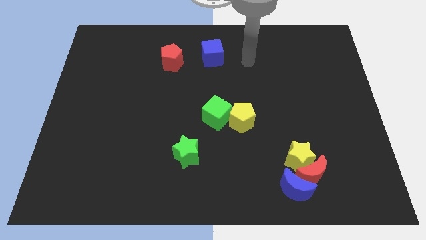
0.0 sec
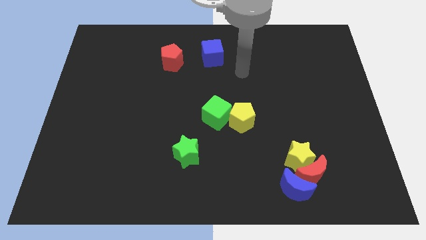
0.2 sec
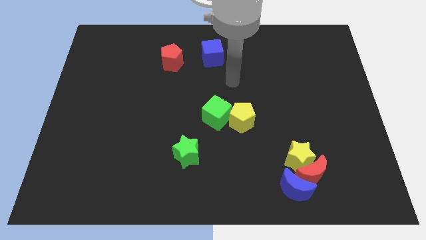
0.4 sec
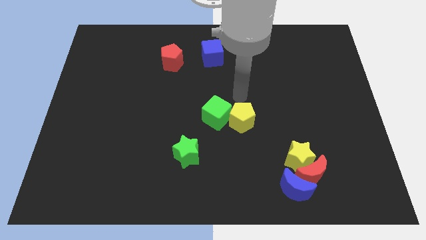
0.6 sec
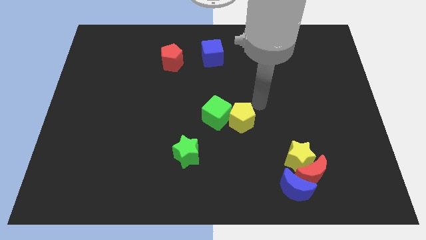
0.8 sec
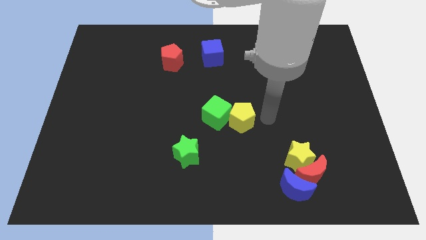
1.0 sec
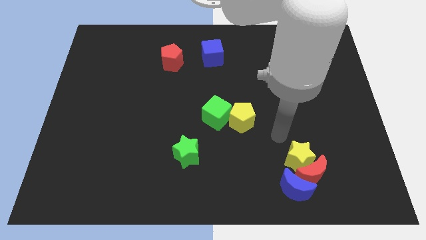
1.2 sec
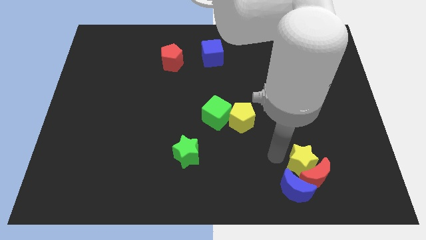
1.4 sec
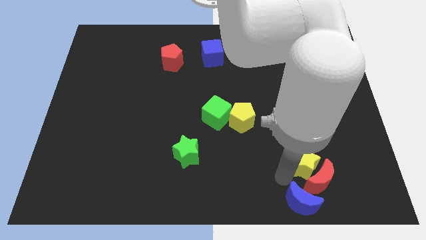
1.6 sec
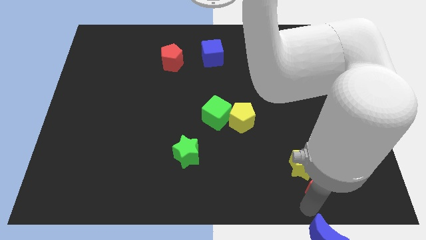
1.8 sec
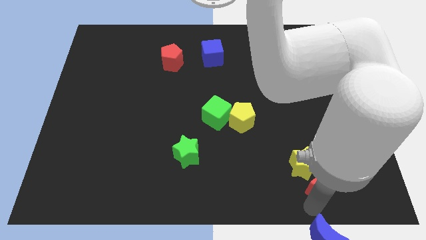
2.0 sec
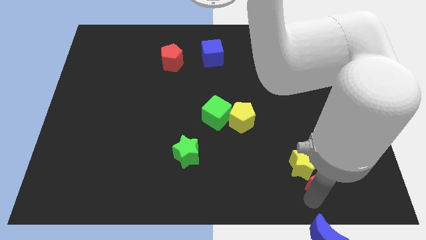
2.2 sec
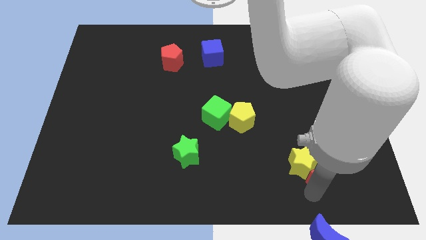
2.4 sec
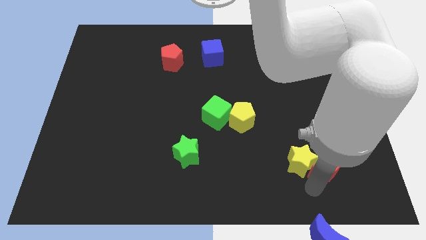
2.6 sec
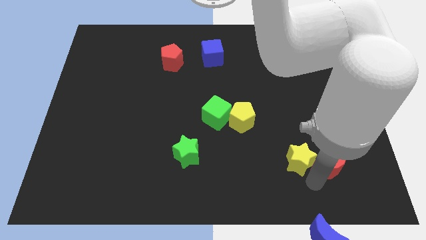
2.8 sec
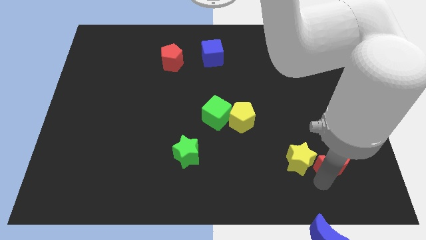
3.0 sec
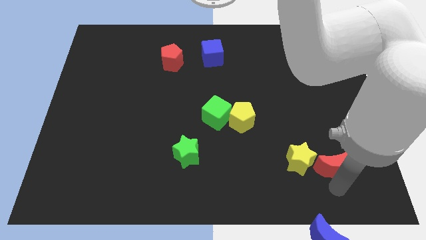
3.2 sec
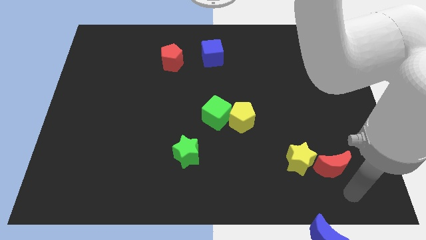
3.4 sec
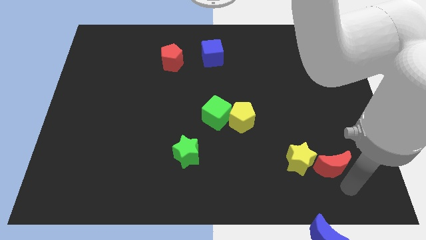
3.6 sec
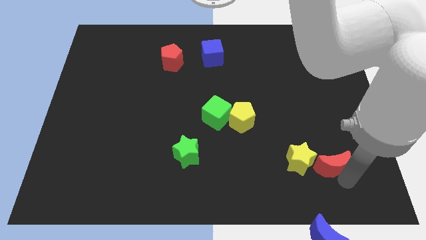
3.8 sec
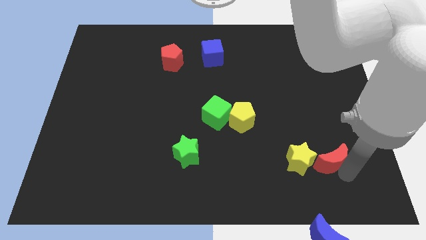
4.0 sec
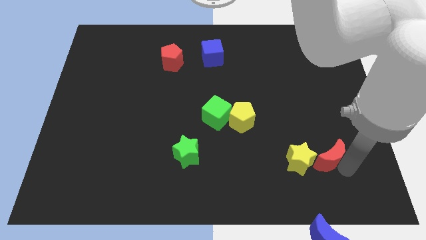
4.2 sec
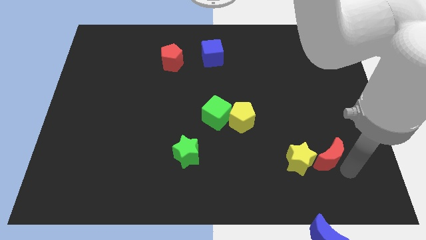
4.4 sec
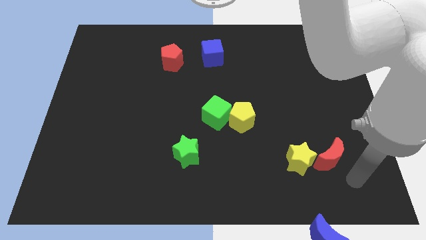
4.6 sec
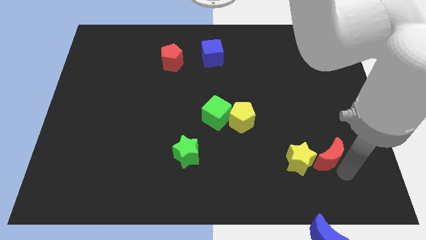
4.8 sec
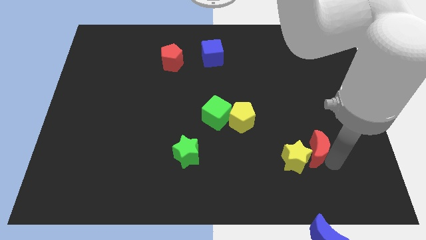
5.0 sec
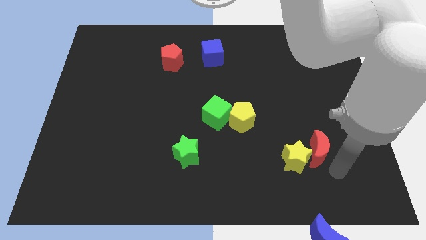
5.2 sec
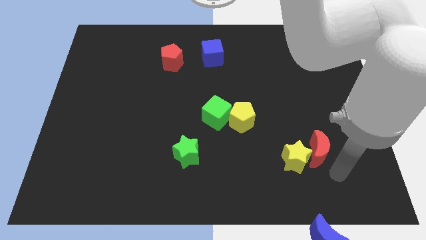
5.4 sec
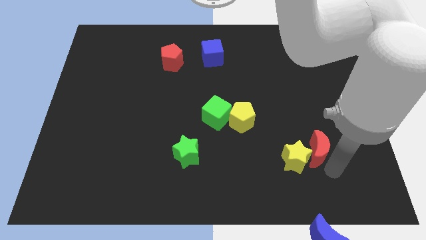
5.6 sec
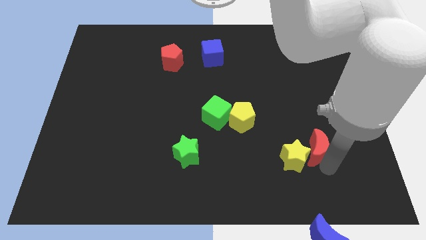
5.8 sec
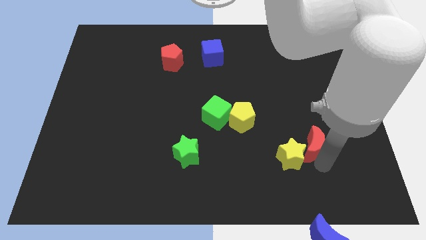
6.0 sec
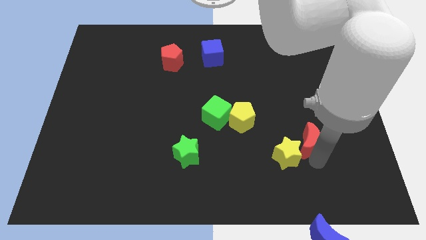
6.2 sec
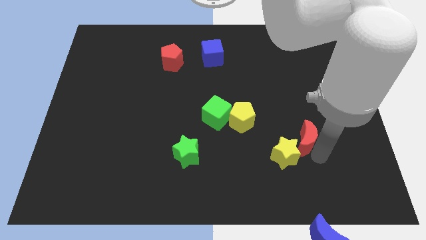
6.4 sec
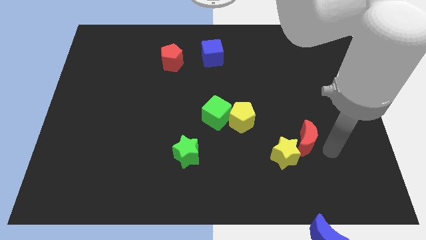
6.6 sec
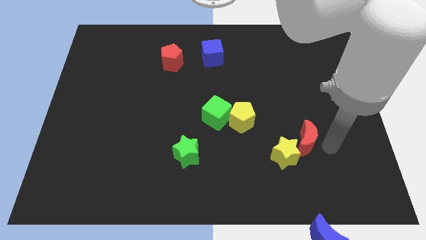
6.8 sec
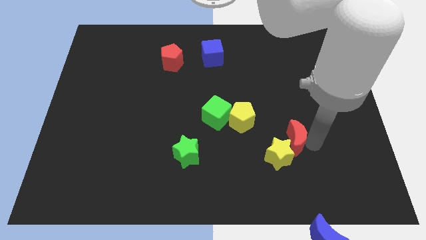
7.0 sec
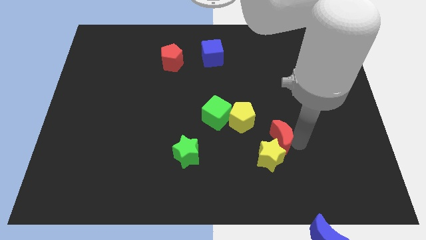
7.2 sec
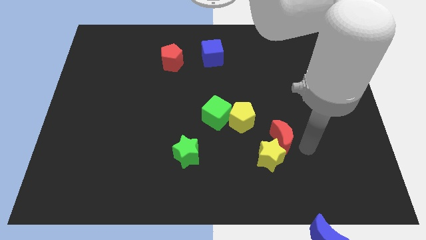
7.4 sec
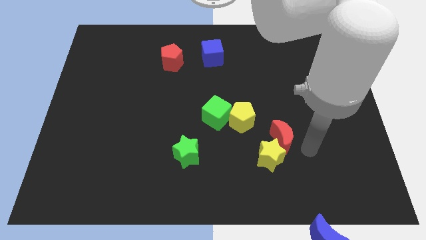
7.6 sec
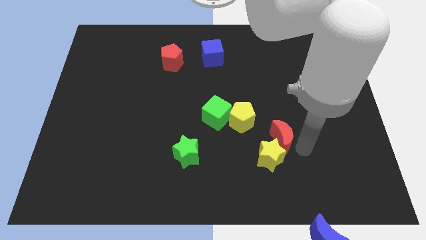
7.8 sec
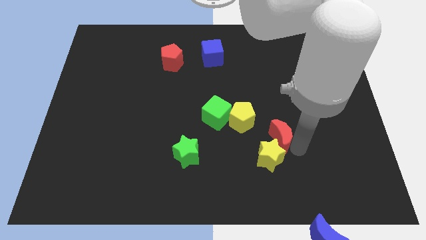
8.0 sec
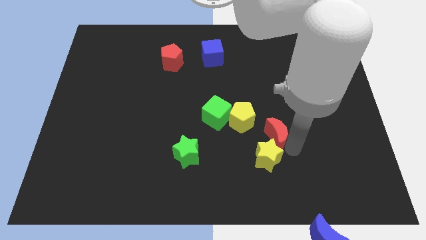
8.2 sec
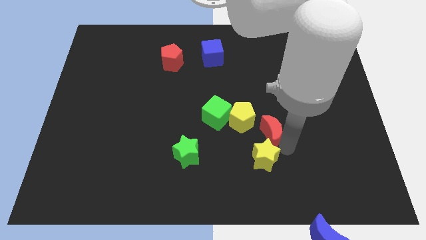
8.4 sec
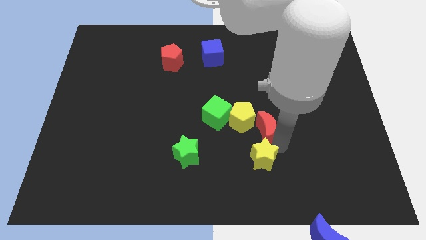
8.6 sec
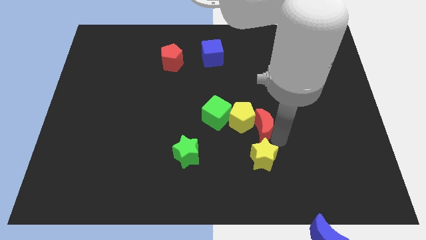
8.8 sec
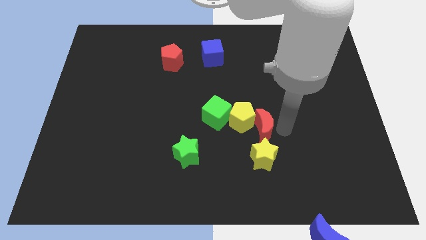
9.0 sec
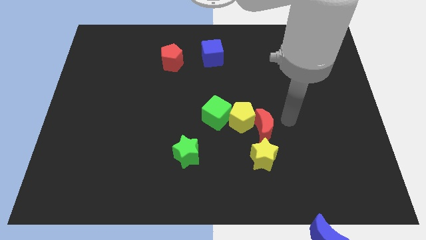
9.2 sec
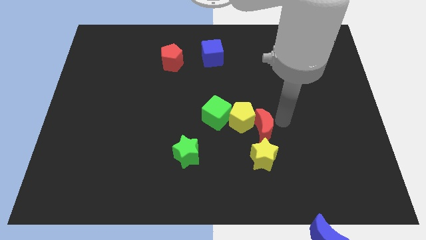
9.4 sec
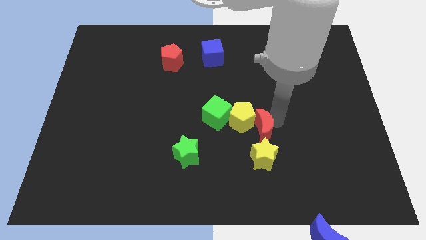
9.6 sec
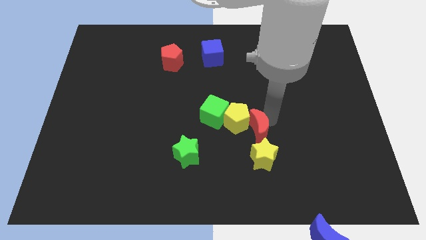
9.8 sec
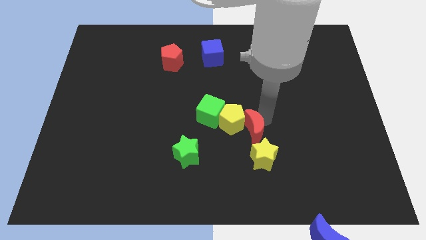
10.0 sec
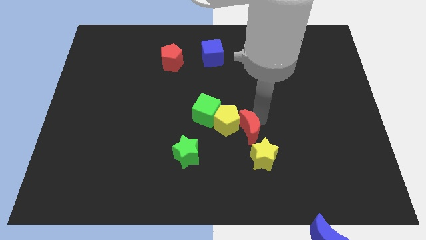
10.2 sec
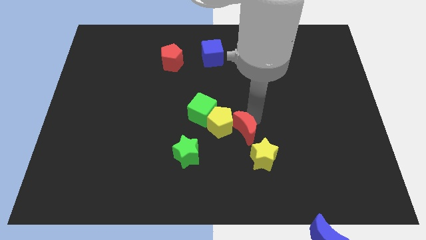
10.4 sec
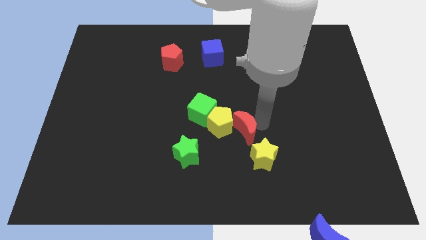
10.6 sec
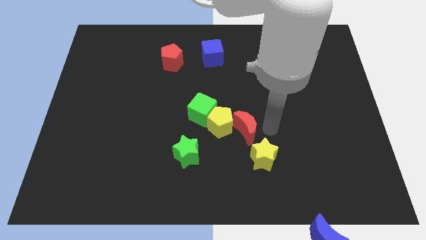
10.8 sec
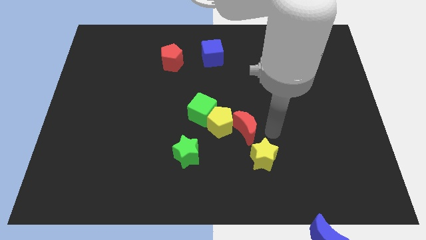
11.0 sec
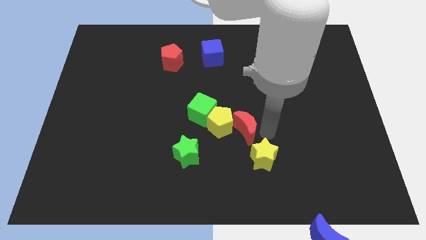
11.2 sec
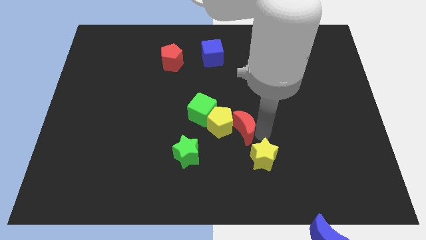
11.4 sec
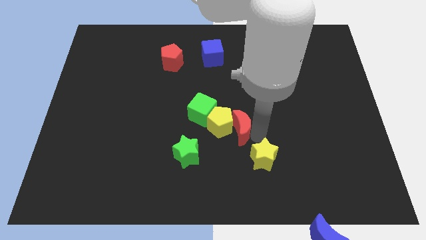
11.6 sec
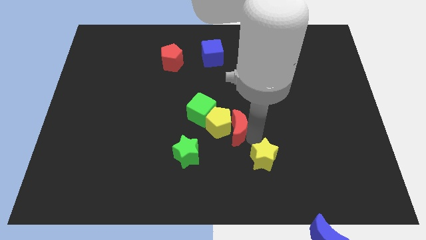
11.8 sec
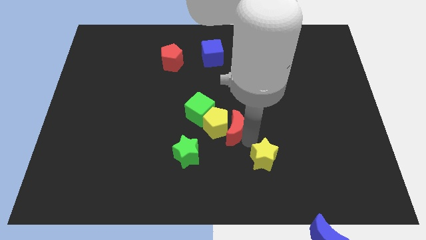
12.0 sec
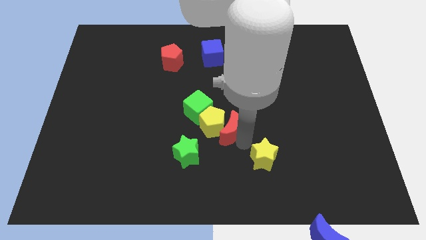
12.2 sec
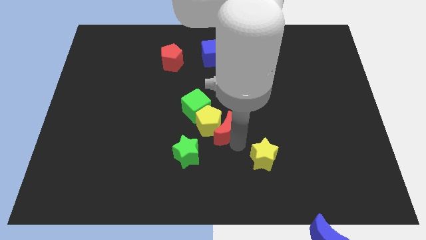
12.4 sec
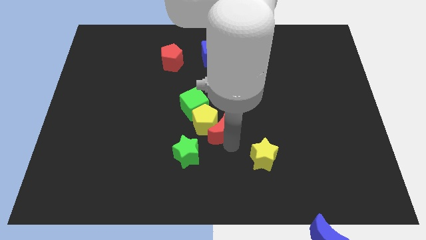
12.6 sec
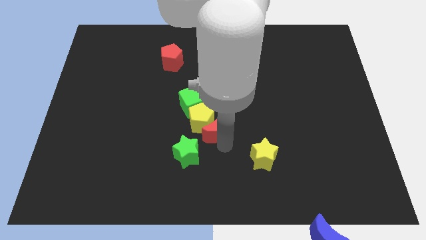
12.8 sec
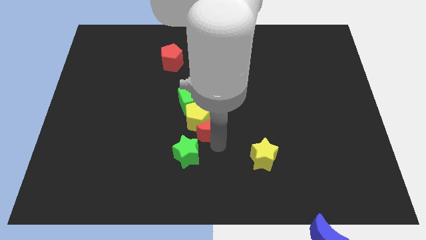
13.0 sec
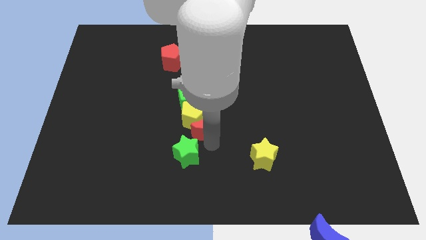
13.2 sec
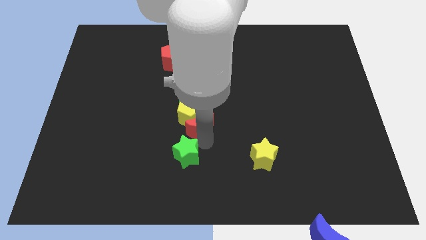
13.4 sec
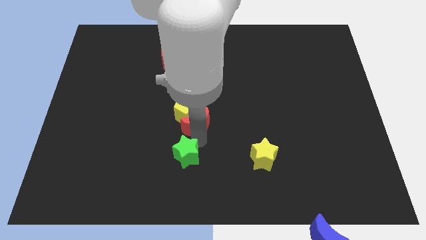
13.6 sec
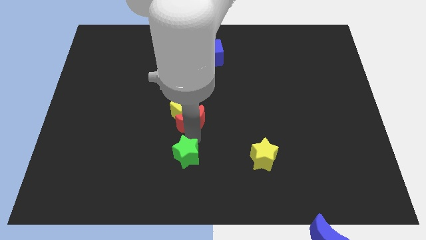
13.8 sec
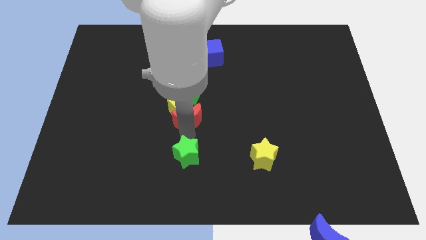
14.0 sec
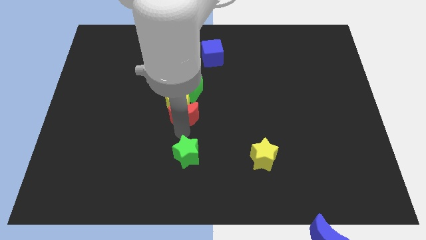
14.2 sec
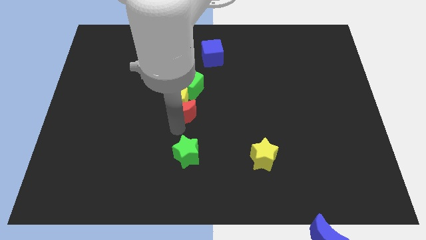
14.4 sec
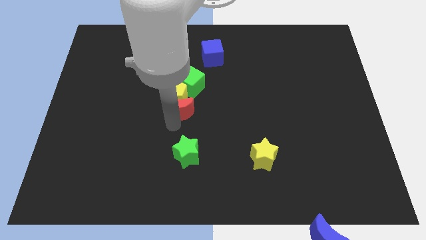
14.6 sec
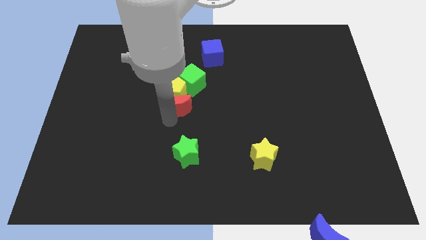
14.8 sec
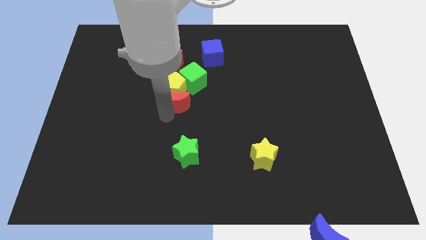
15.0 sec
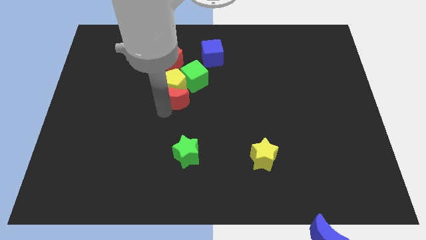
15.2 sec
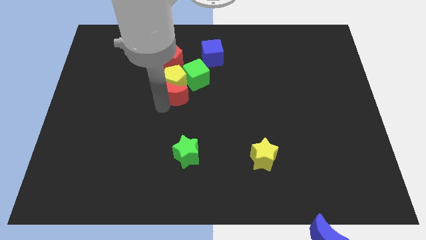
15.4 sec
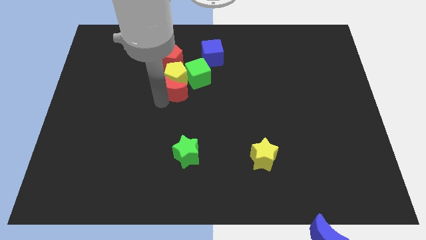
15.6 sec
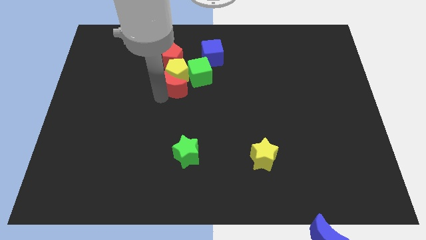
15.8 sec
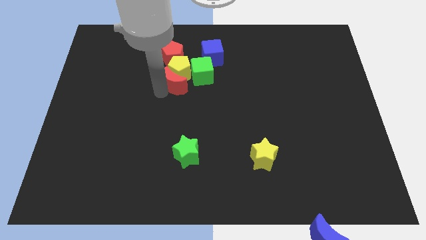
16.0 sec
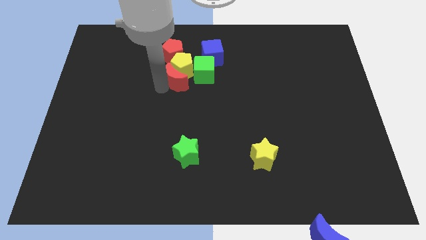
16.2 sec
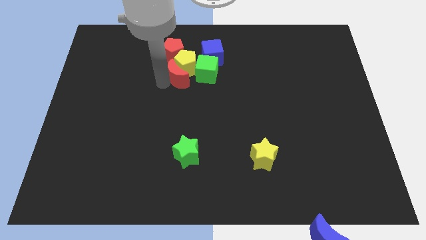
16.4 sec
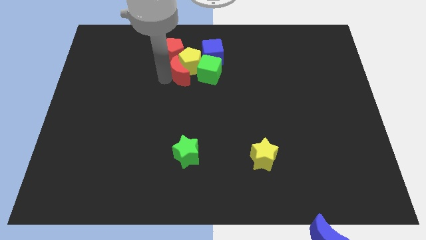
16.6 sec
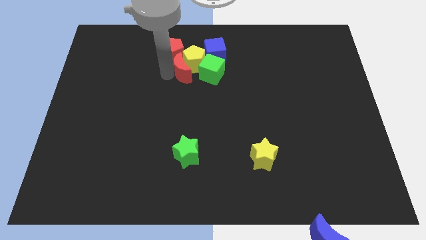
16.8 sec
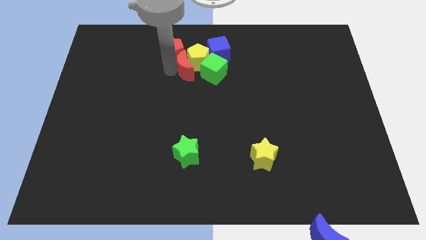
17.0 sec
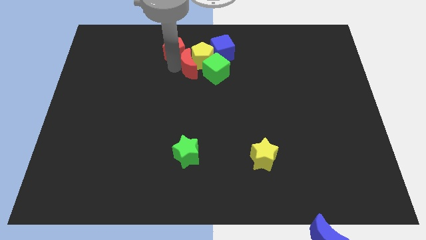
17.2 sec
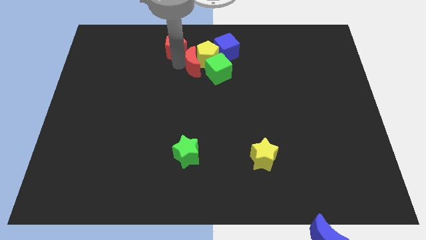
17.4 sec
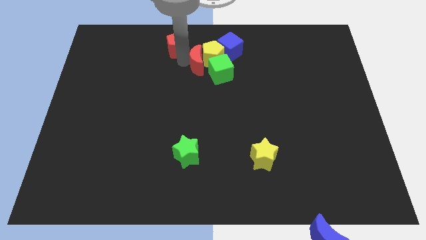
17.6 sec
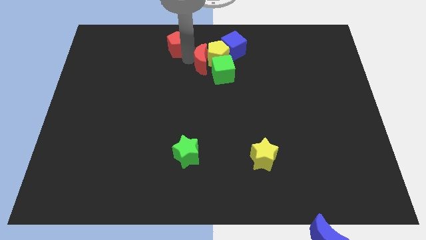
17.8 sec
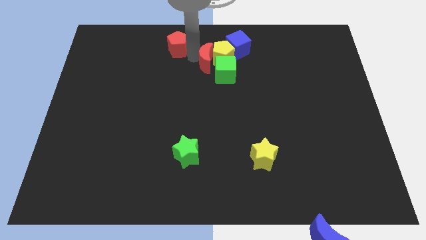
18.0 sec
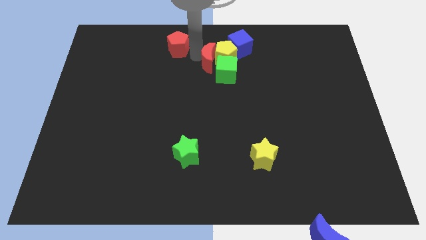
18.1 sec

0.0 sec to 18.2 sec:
move the red moon next to the green cube
